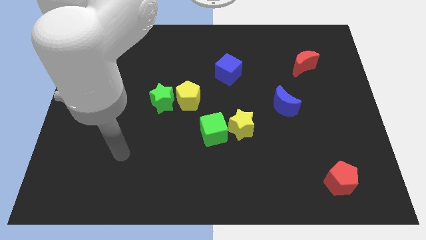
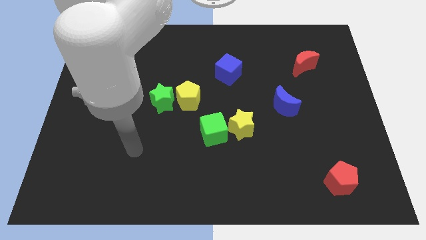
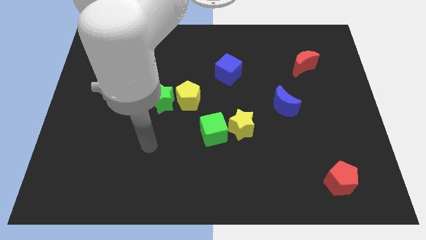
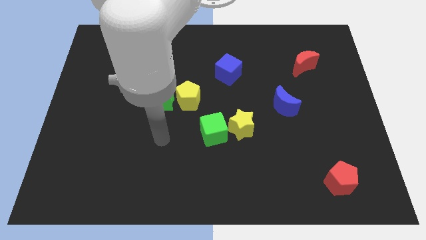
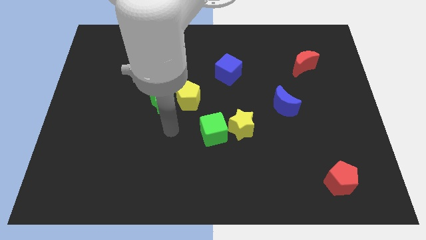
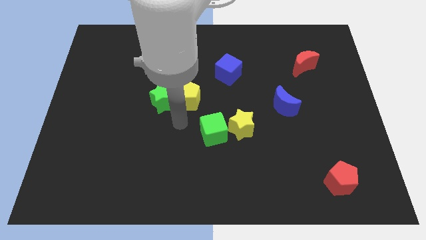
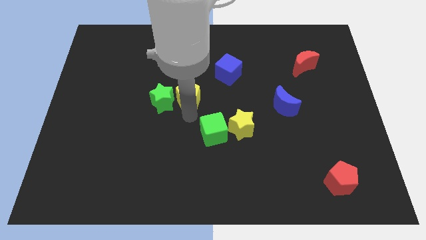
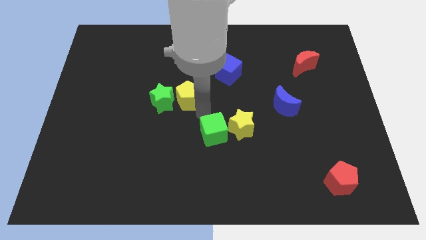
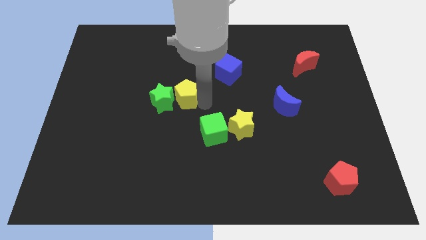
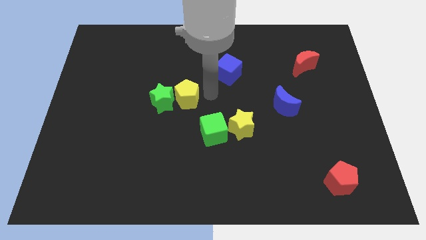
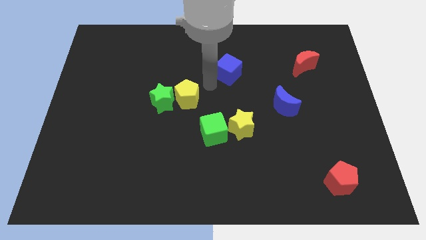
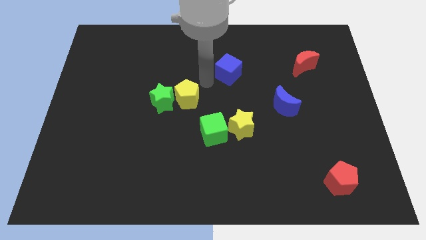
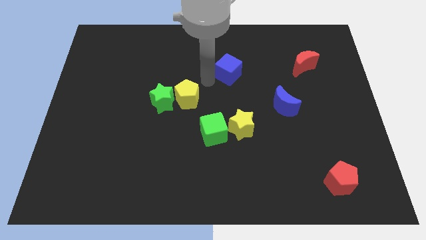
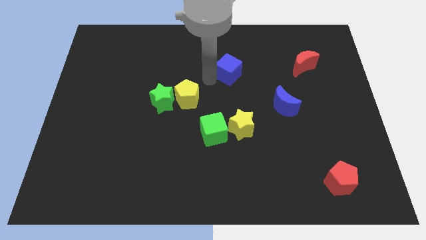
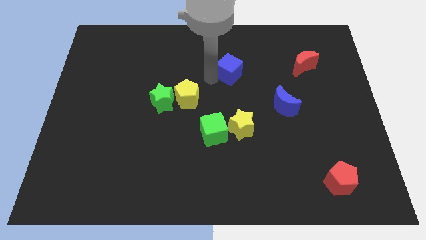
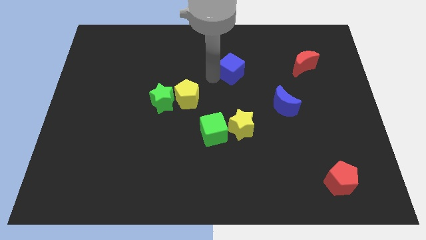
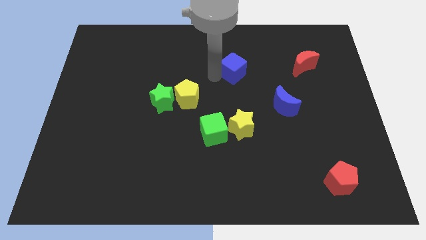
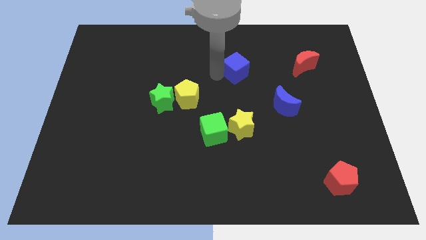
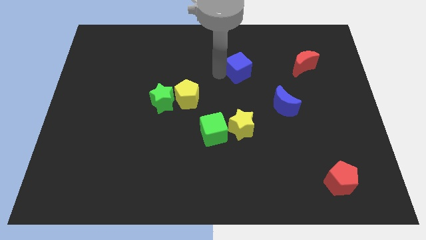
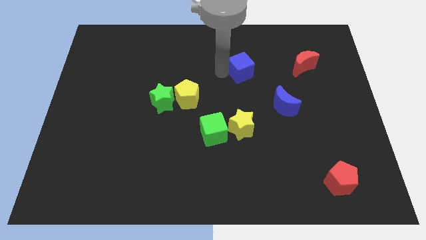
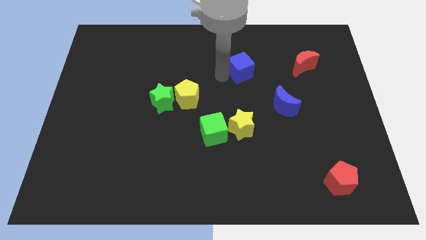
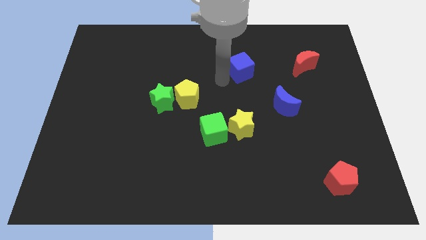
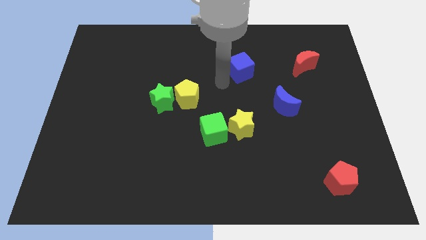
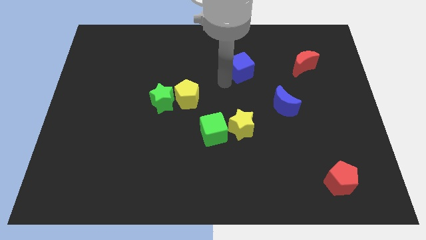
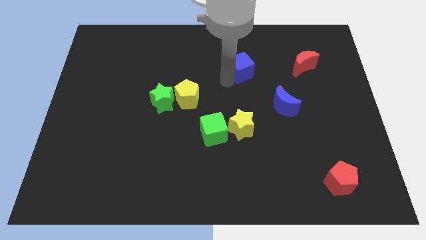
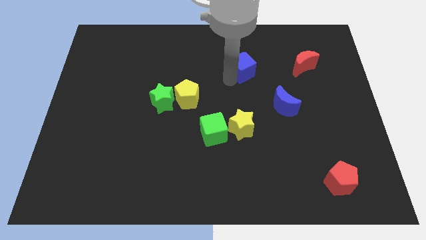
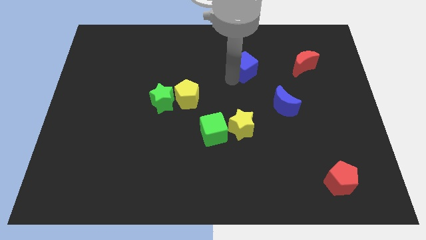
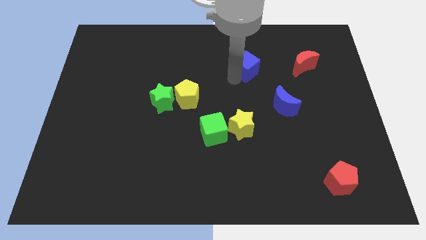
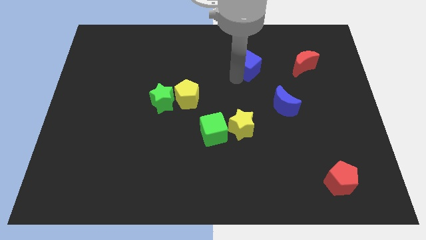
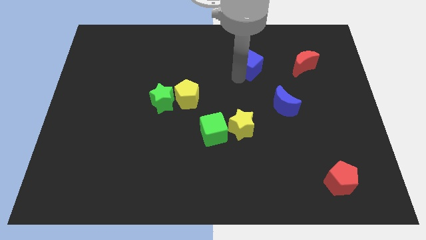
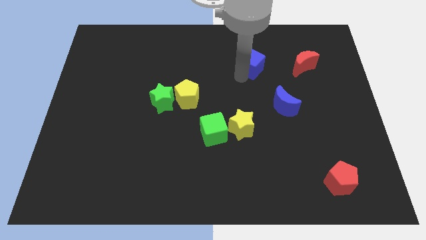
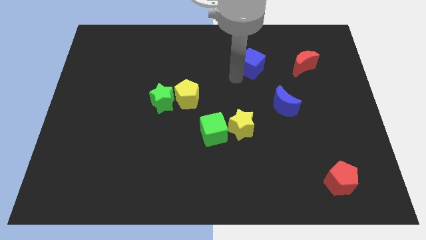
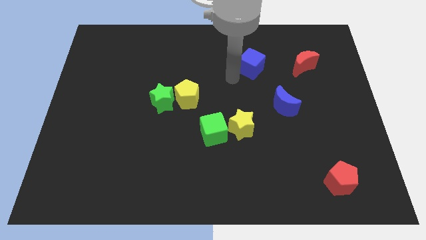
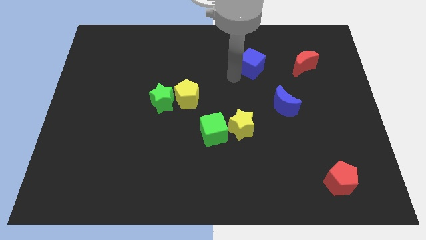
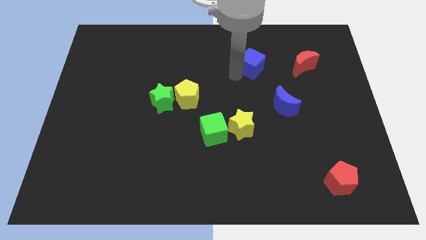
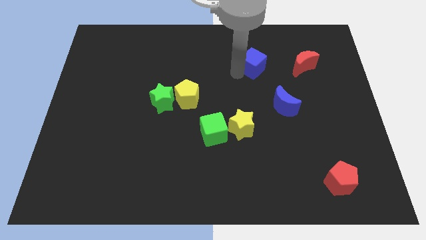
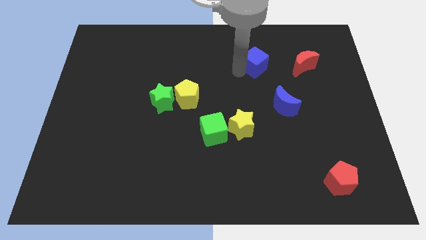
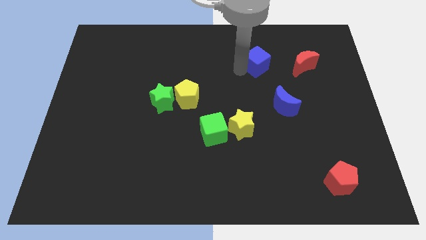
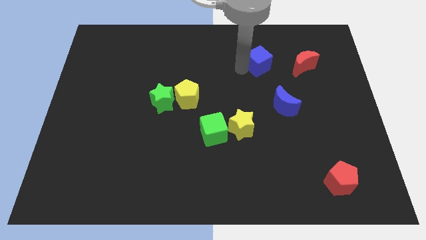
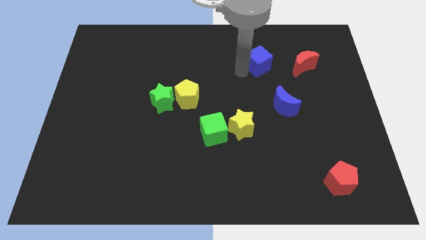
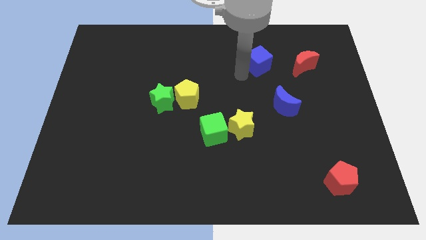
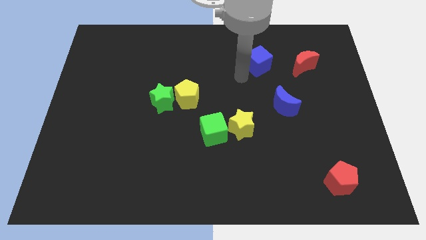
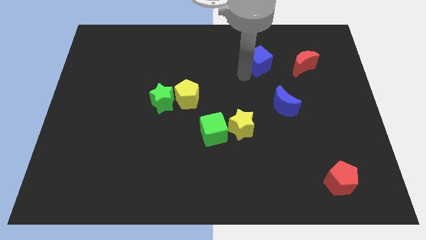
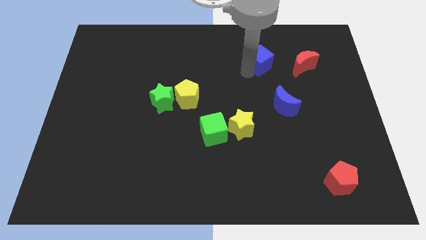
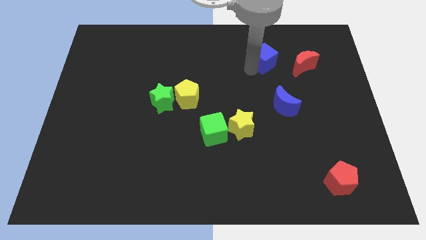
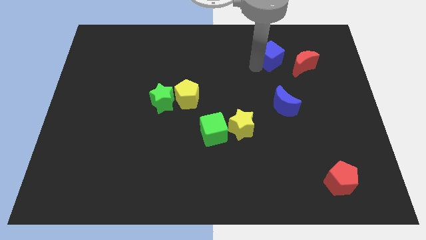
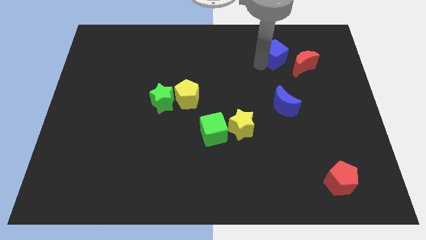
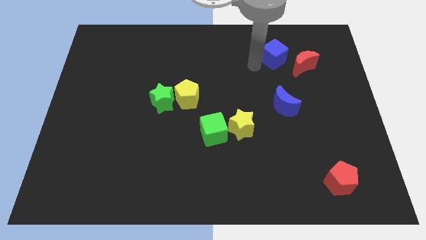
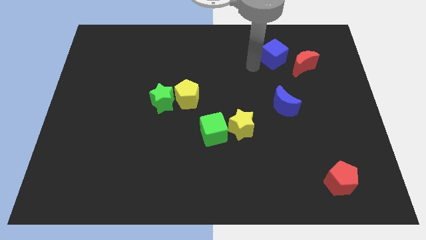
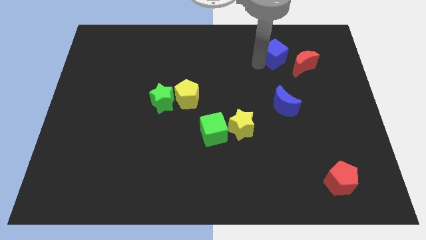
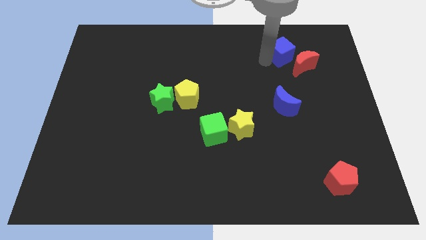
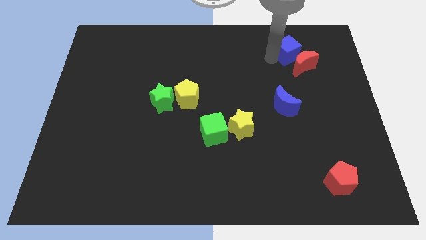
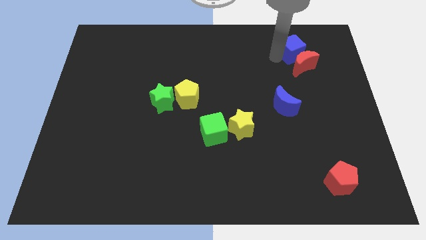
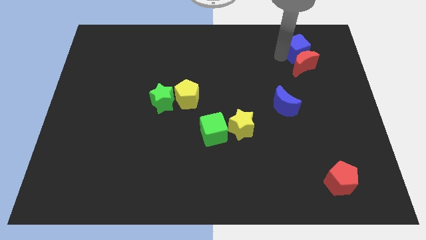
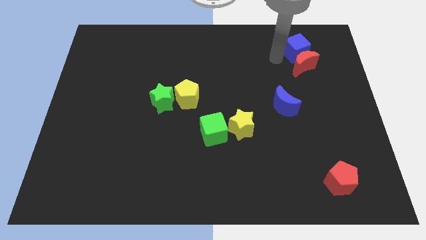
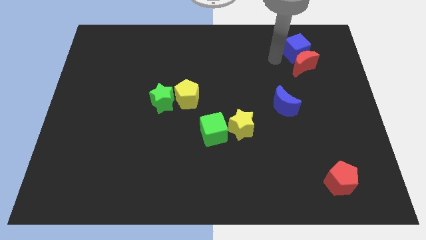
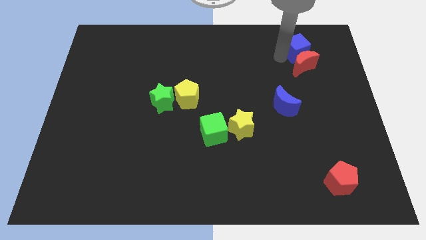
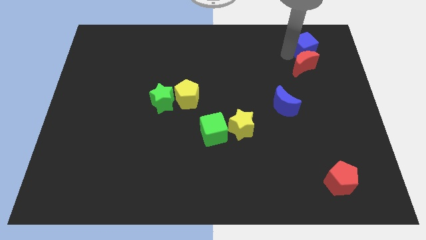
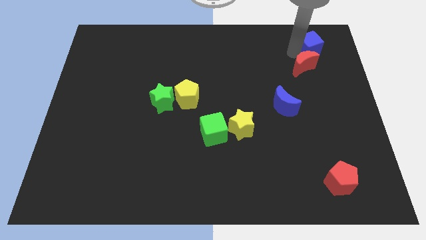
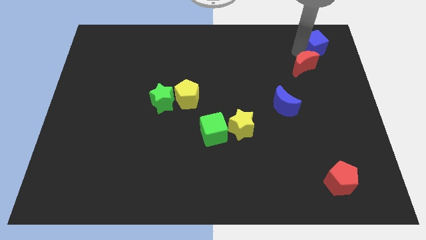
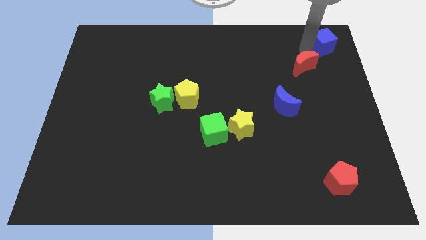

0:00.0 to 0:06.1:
move the blue cube to the upper right corner

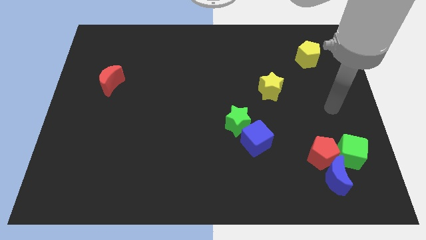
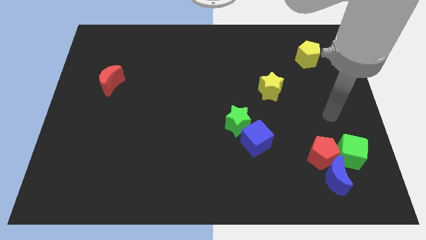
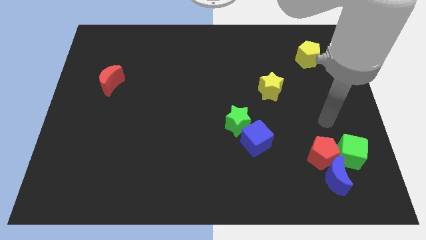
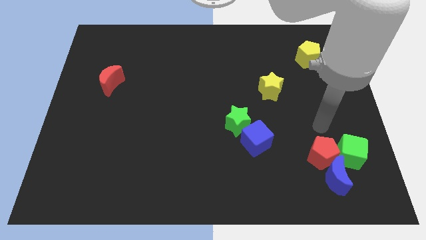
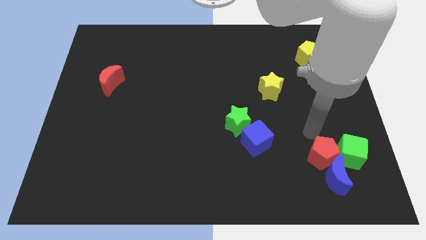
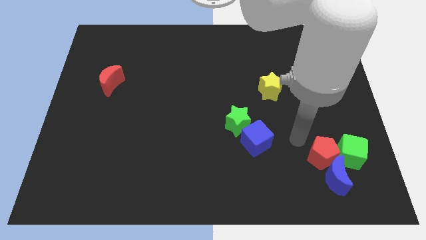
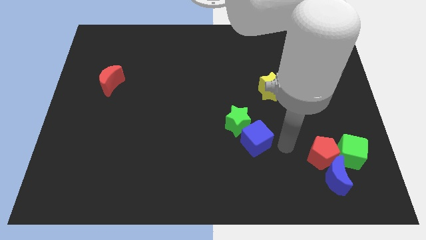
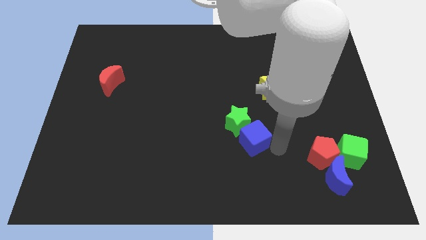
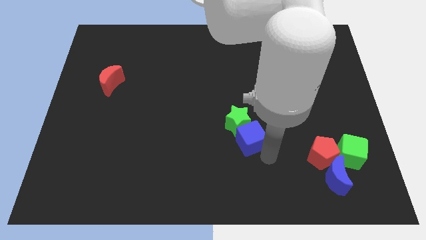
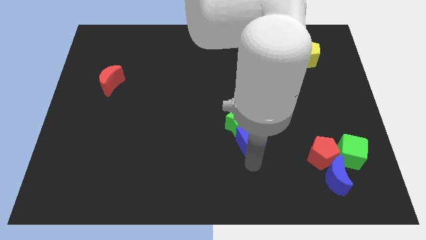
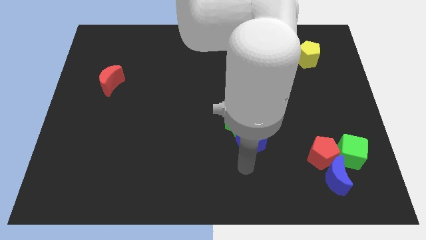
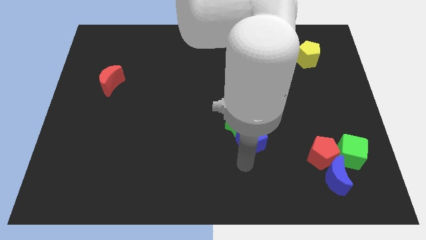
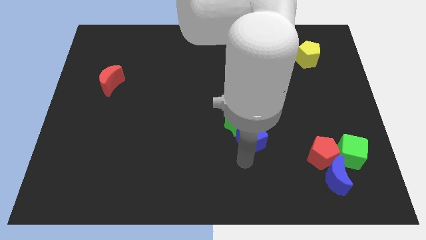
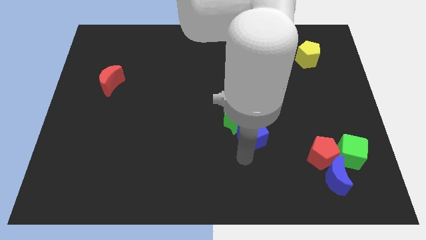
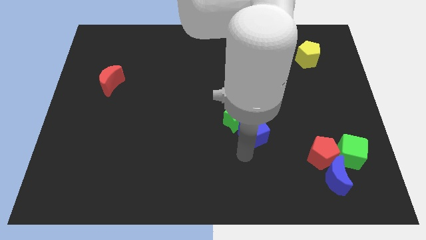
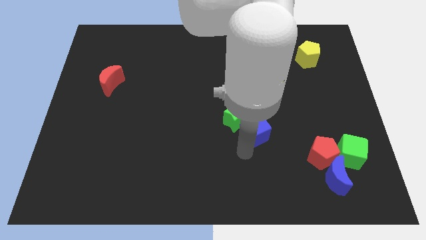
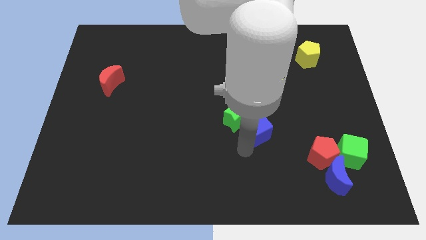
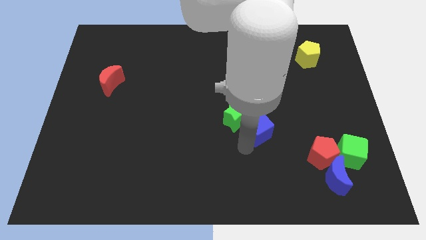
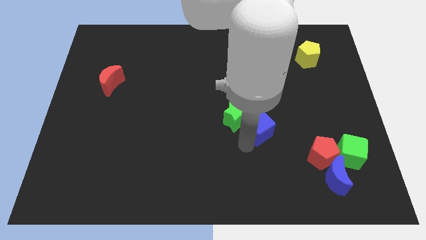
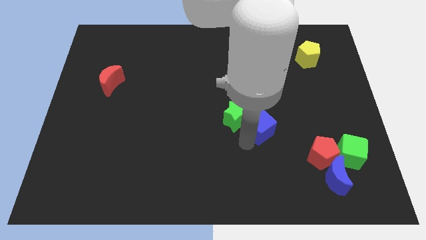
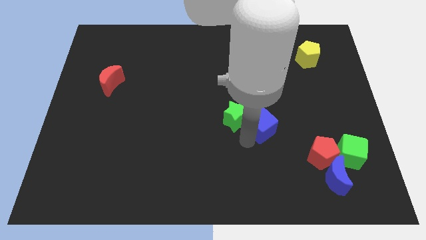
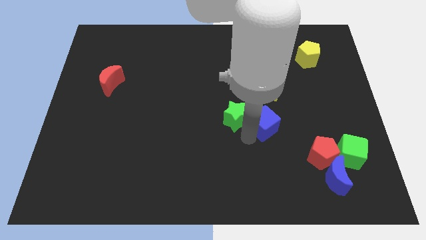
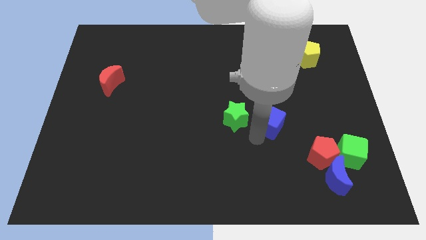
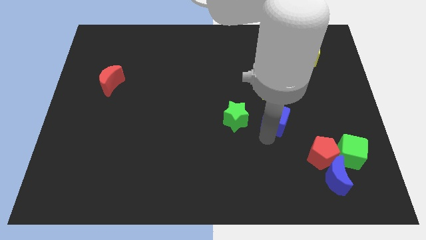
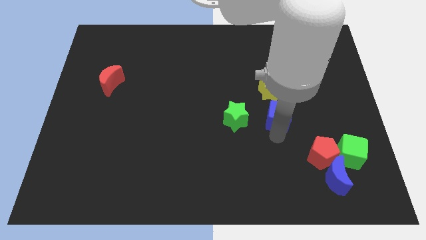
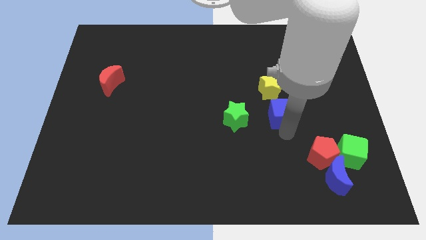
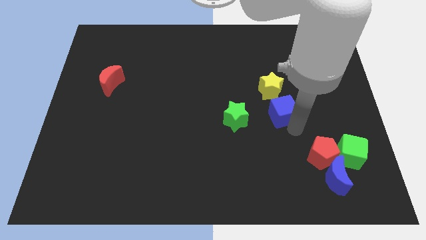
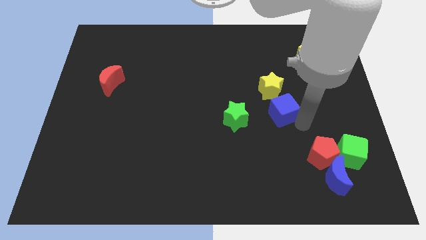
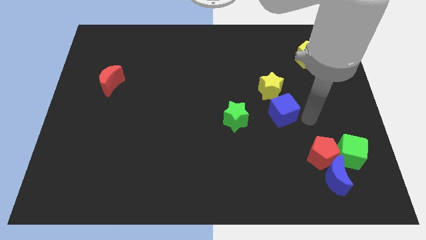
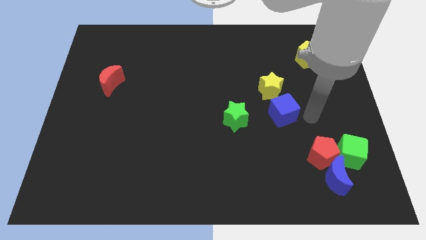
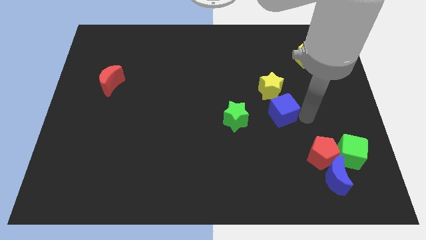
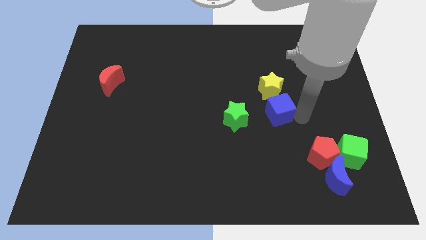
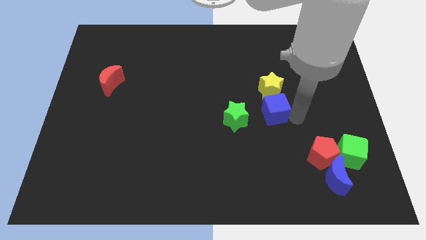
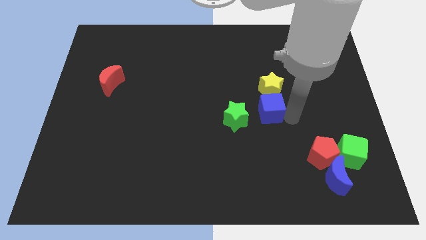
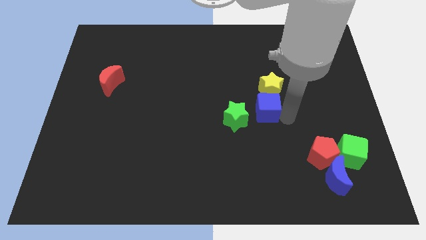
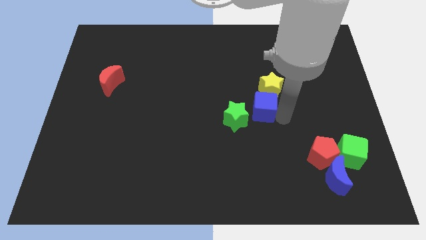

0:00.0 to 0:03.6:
put the blue cube to the middle
